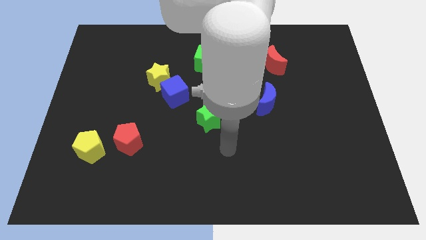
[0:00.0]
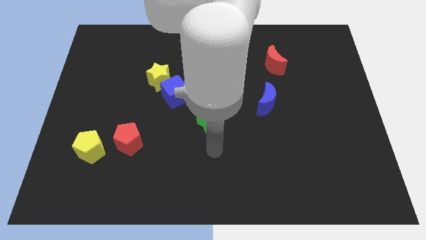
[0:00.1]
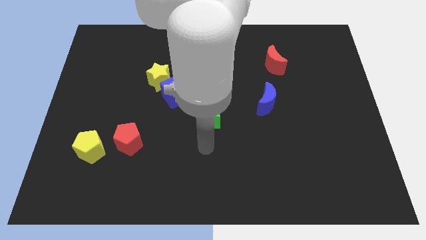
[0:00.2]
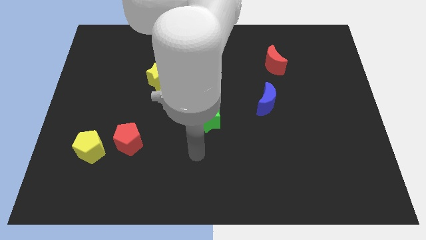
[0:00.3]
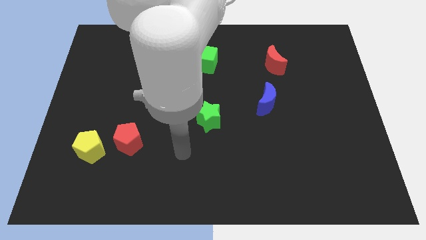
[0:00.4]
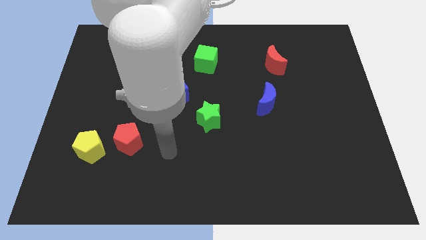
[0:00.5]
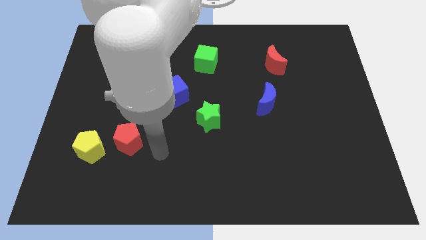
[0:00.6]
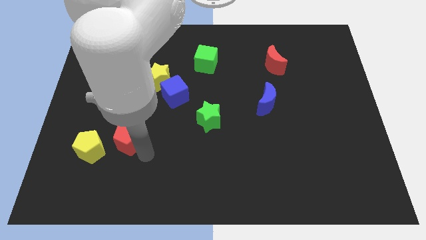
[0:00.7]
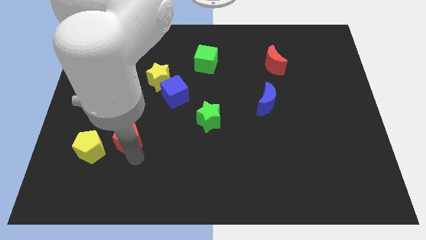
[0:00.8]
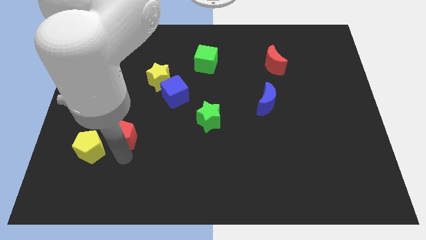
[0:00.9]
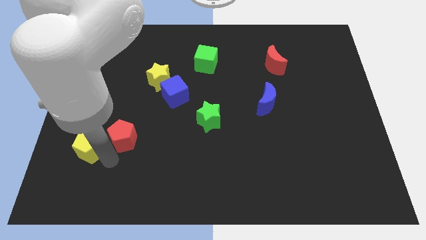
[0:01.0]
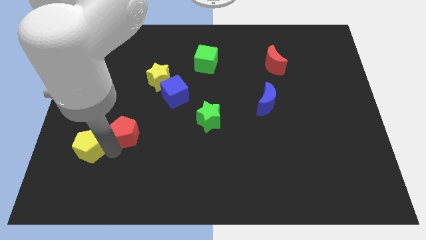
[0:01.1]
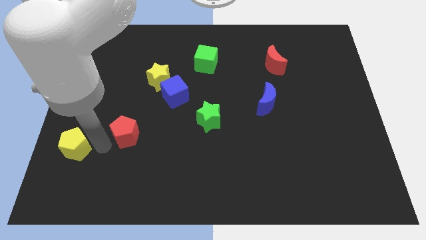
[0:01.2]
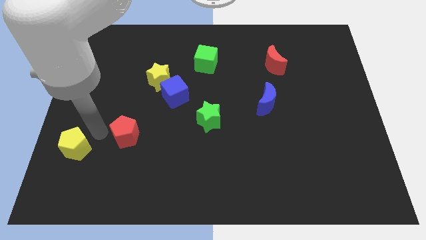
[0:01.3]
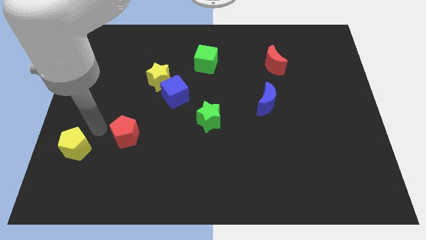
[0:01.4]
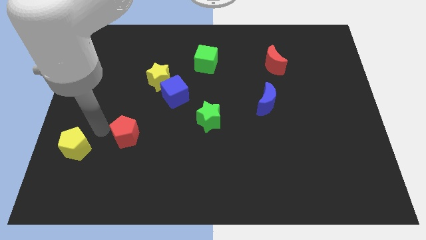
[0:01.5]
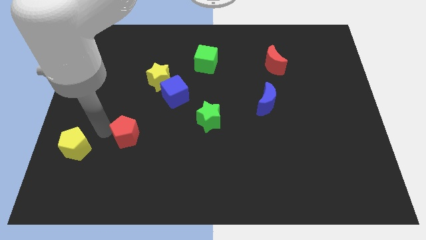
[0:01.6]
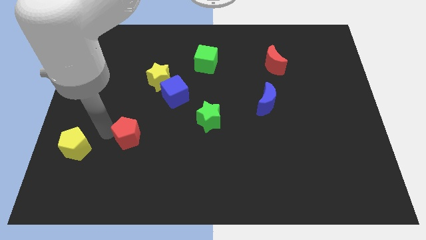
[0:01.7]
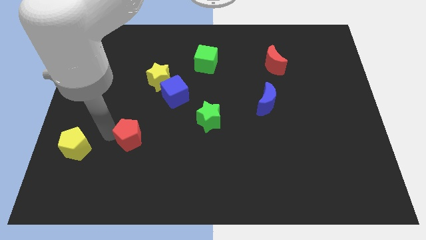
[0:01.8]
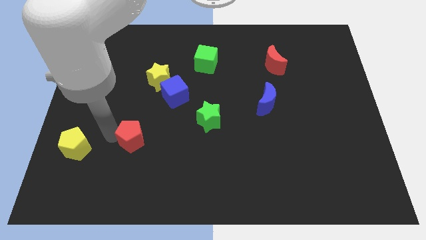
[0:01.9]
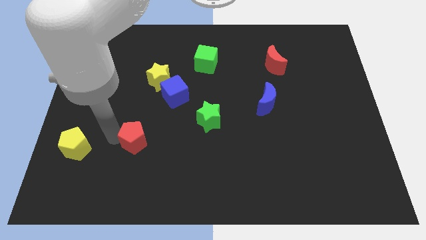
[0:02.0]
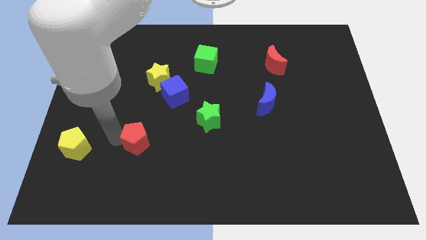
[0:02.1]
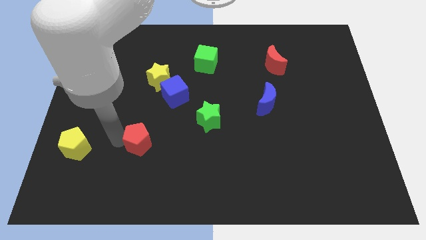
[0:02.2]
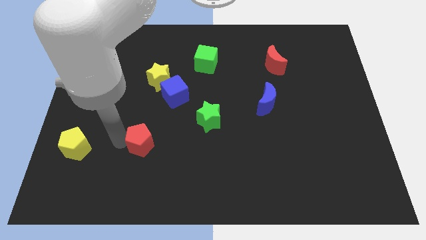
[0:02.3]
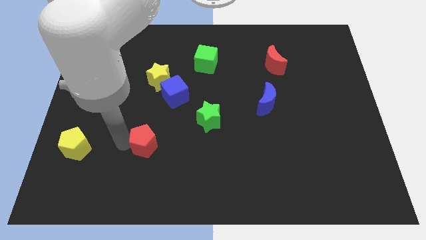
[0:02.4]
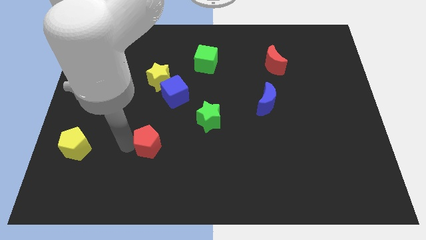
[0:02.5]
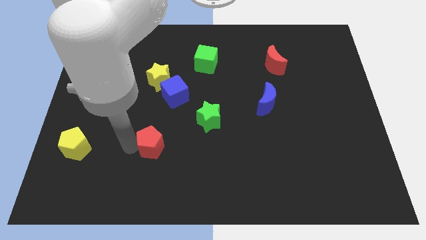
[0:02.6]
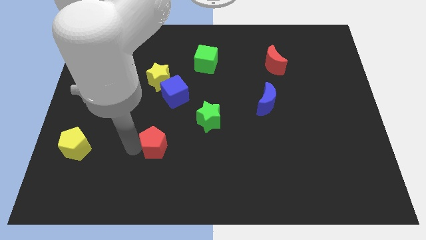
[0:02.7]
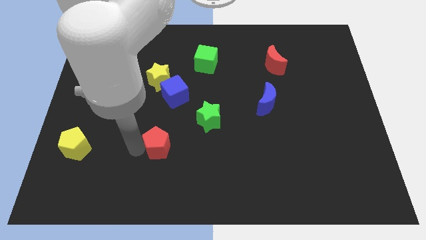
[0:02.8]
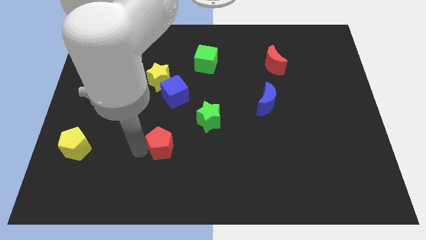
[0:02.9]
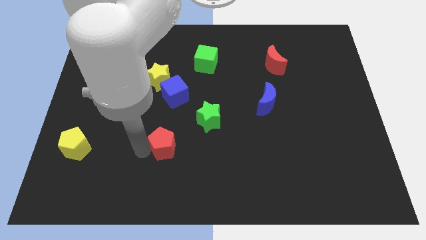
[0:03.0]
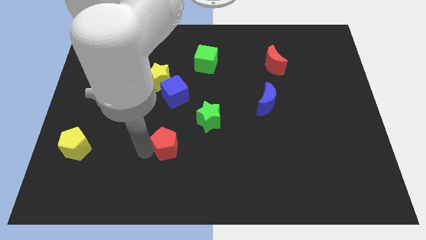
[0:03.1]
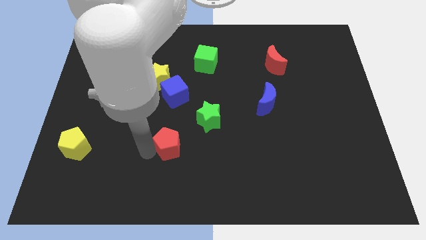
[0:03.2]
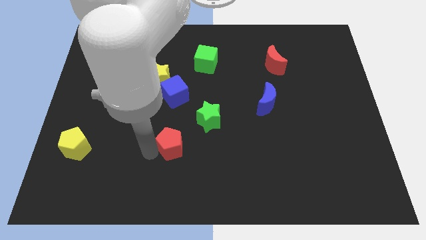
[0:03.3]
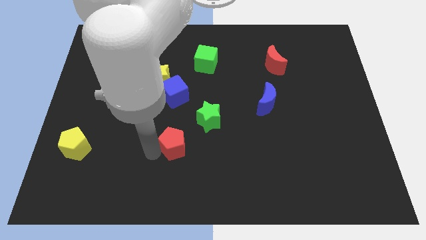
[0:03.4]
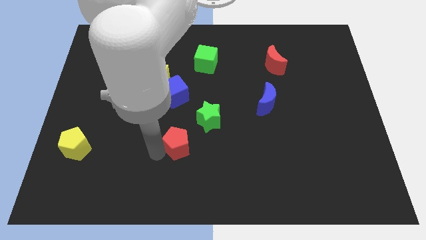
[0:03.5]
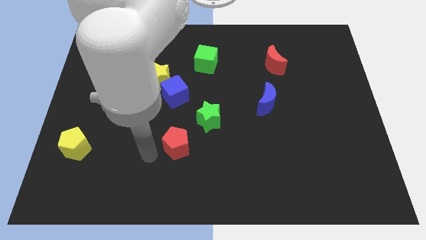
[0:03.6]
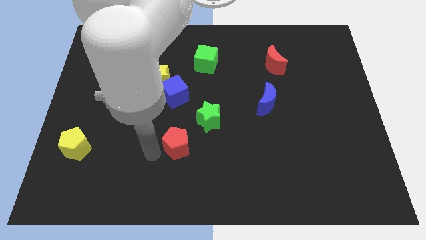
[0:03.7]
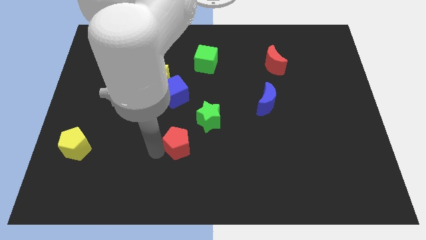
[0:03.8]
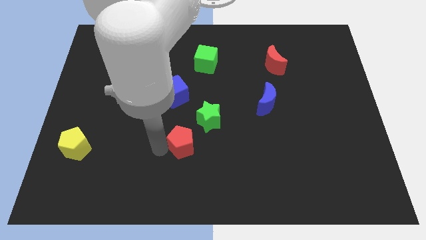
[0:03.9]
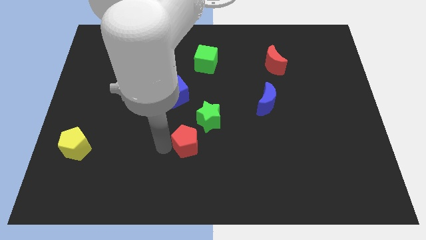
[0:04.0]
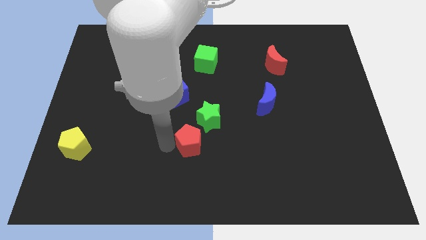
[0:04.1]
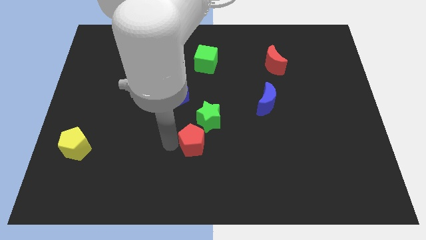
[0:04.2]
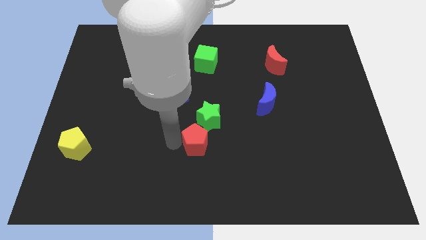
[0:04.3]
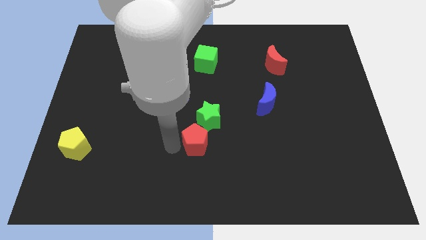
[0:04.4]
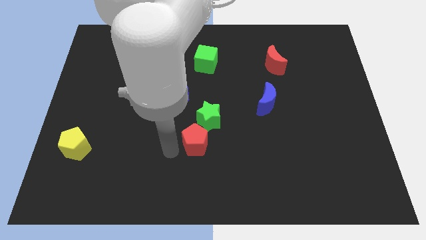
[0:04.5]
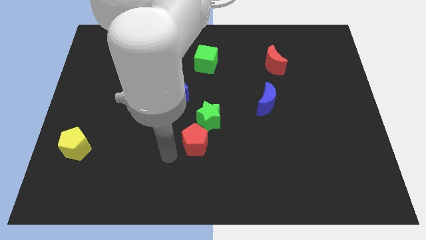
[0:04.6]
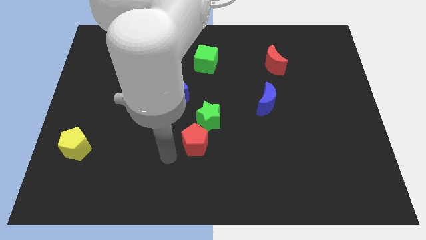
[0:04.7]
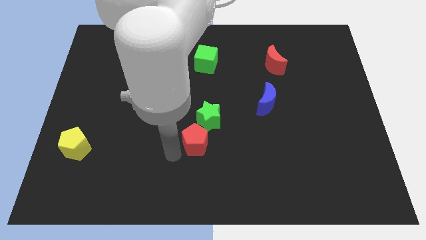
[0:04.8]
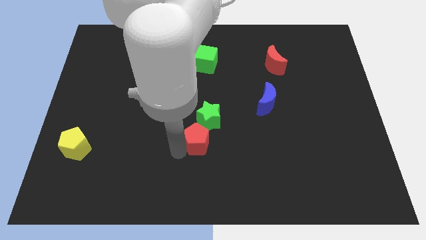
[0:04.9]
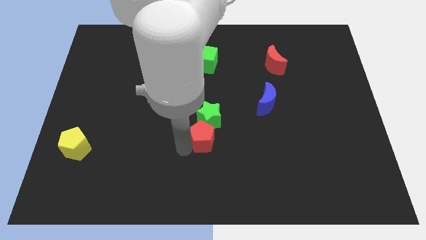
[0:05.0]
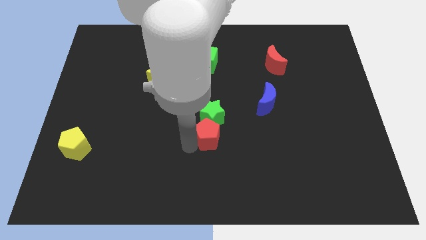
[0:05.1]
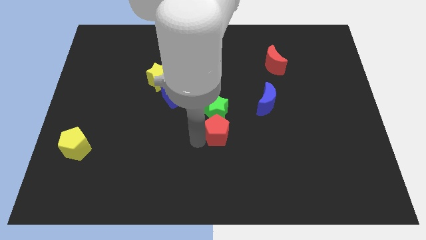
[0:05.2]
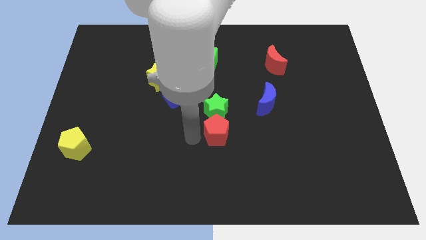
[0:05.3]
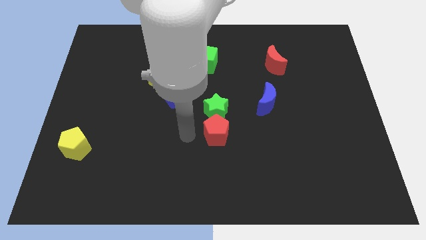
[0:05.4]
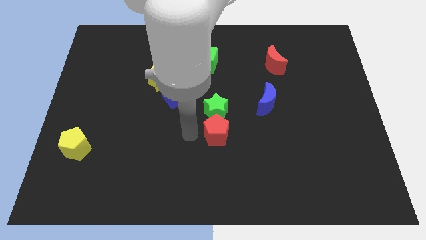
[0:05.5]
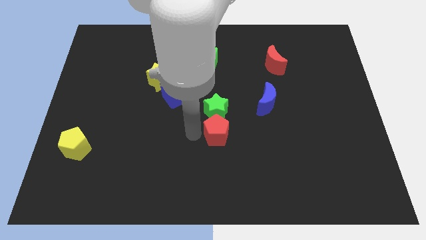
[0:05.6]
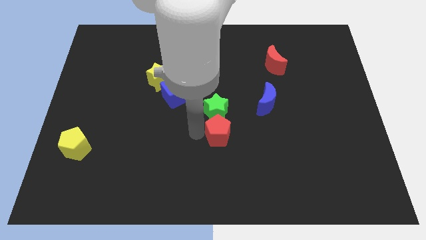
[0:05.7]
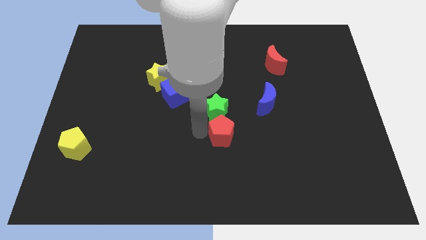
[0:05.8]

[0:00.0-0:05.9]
push the red pentagon right

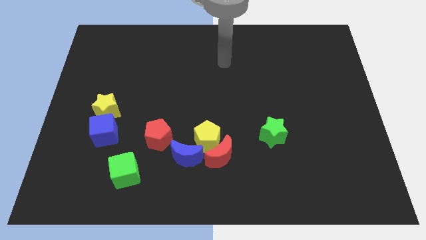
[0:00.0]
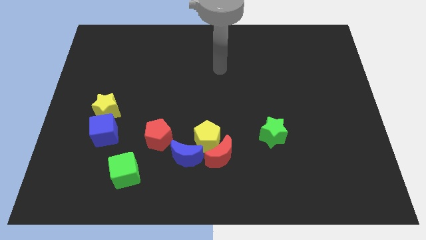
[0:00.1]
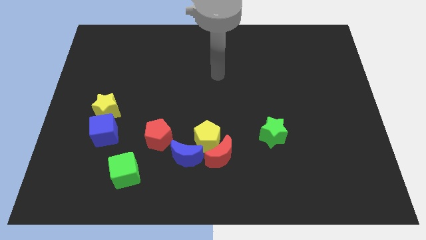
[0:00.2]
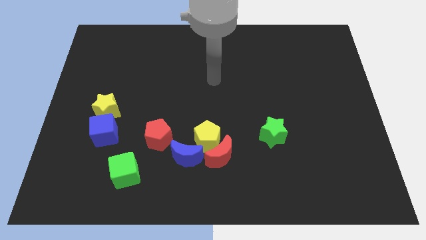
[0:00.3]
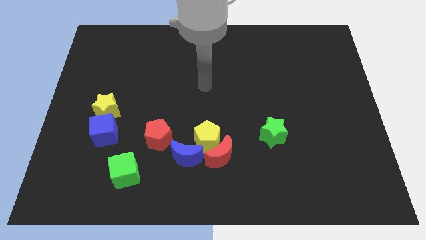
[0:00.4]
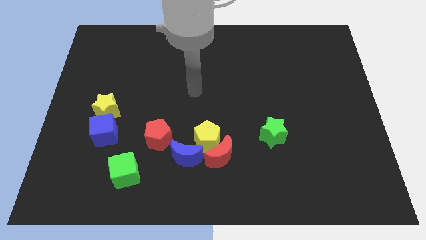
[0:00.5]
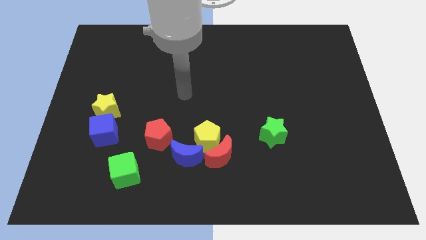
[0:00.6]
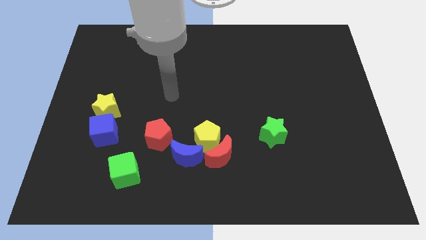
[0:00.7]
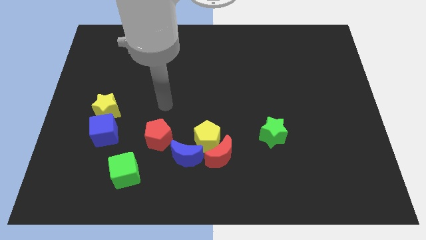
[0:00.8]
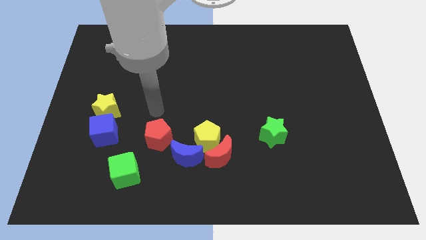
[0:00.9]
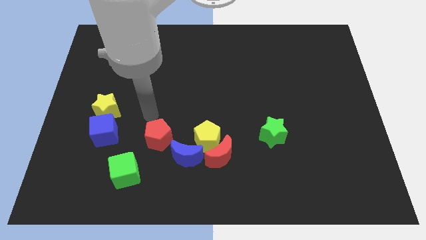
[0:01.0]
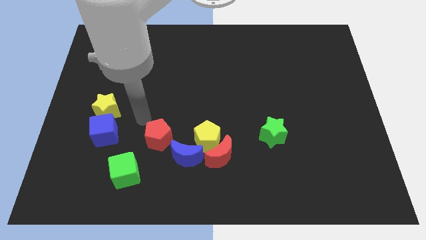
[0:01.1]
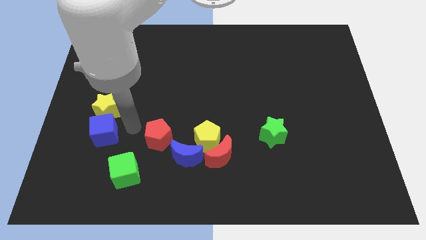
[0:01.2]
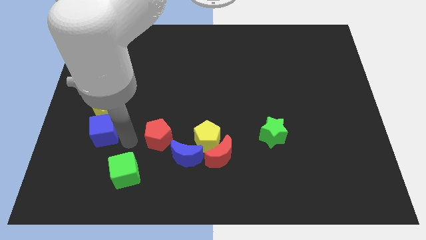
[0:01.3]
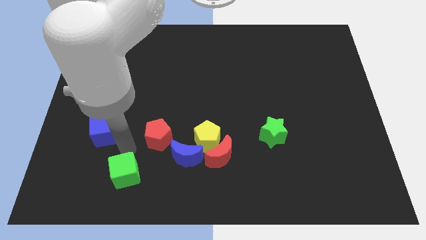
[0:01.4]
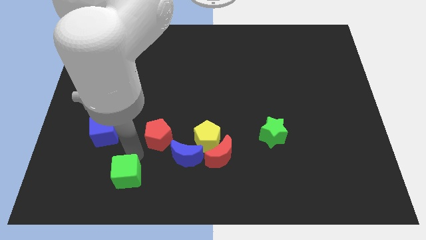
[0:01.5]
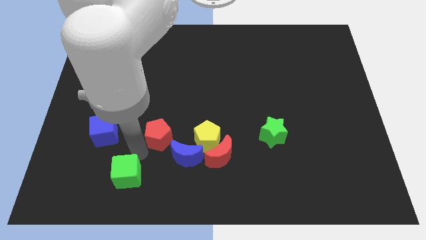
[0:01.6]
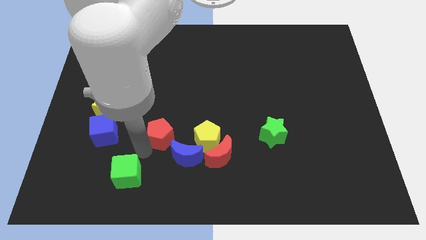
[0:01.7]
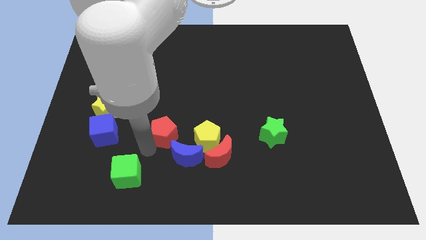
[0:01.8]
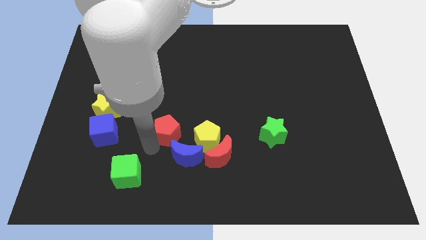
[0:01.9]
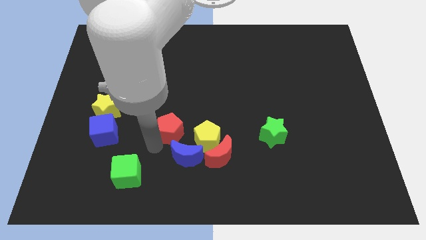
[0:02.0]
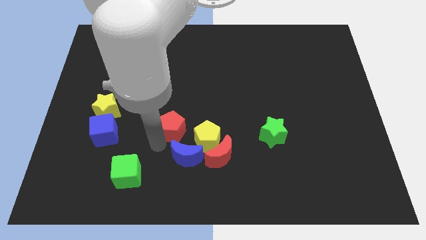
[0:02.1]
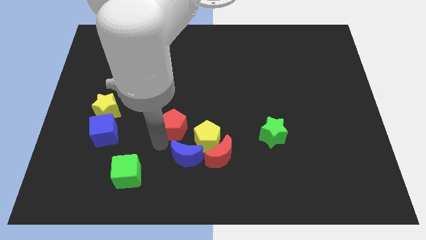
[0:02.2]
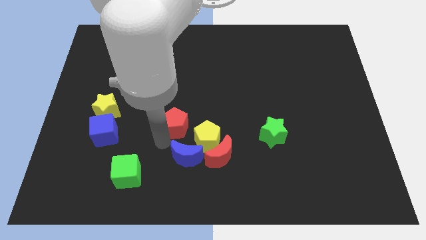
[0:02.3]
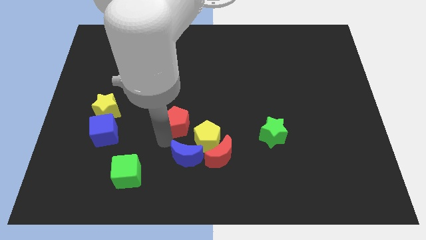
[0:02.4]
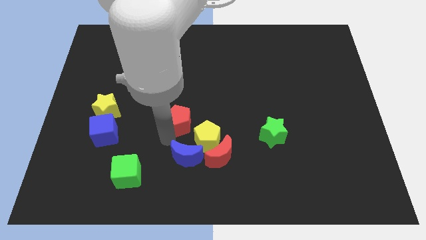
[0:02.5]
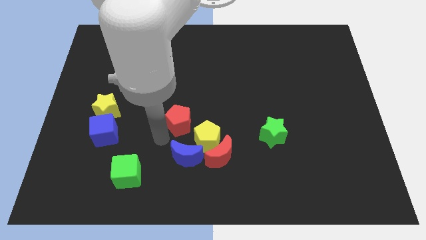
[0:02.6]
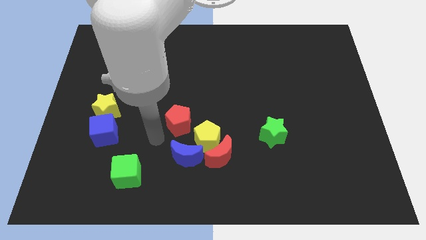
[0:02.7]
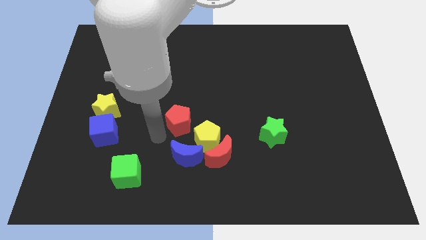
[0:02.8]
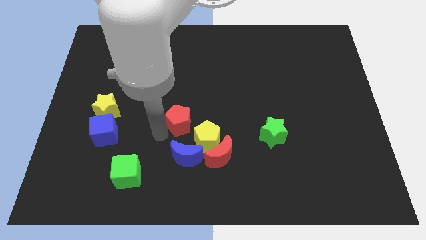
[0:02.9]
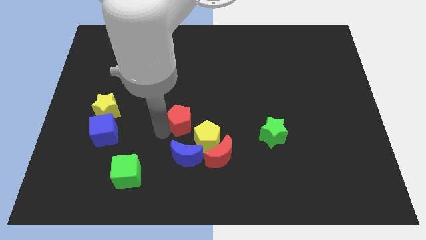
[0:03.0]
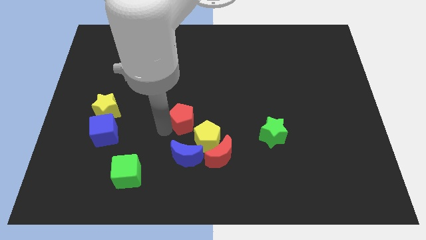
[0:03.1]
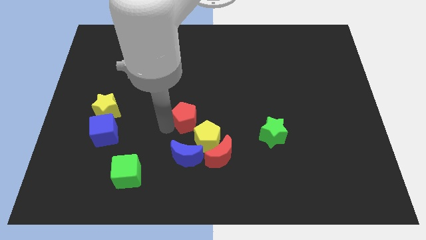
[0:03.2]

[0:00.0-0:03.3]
push the red pentagon diagonally up and to the right a little
